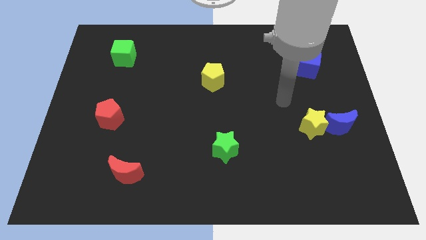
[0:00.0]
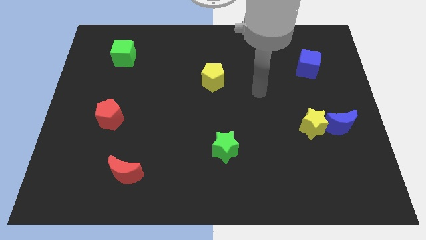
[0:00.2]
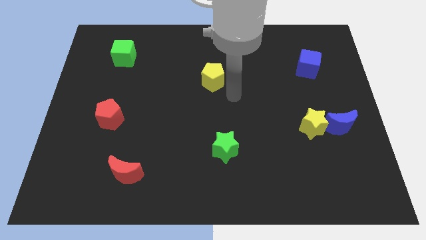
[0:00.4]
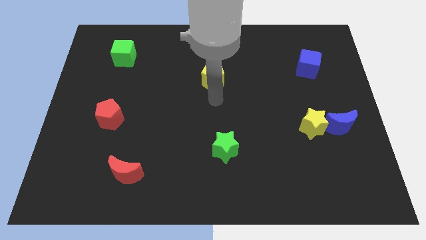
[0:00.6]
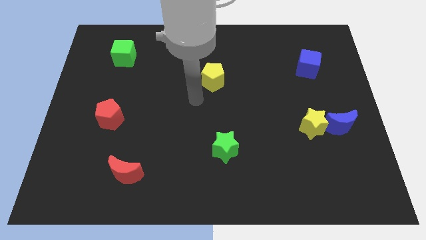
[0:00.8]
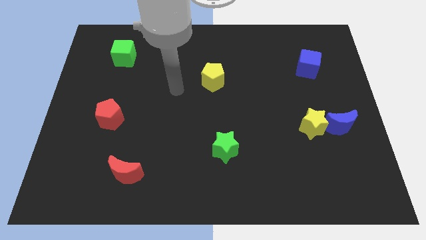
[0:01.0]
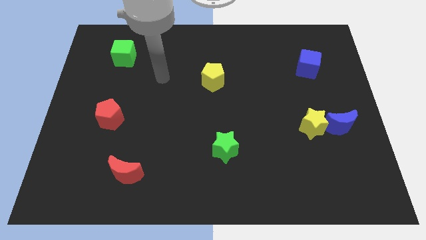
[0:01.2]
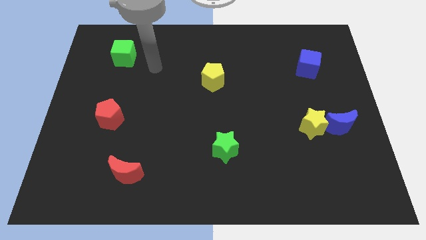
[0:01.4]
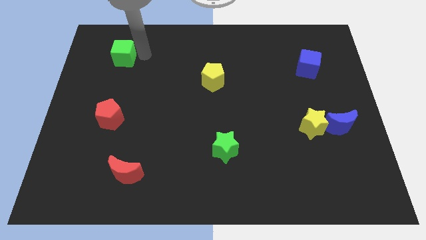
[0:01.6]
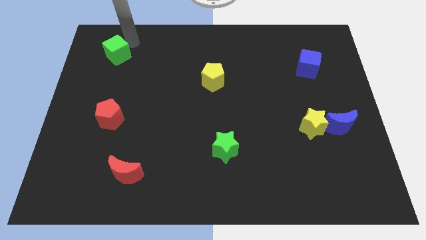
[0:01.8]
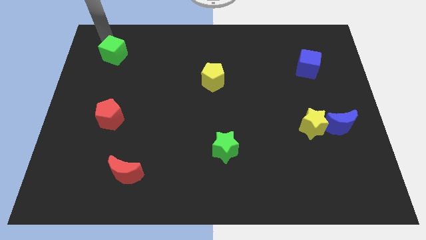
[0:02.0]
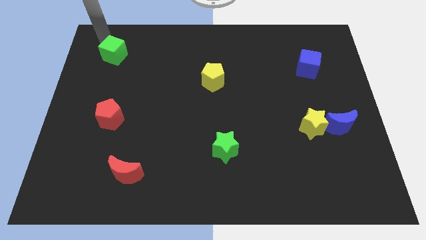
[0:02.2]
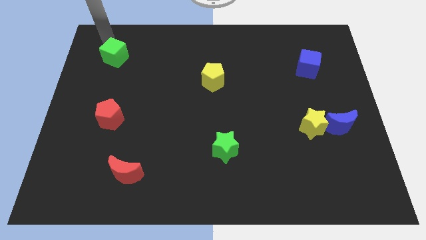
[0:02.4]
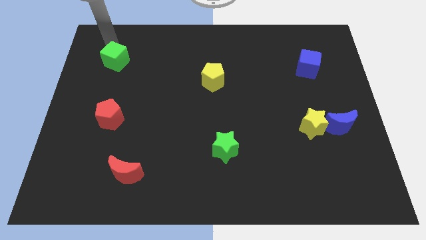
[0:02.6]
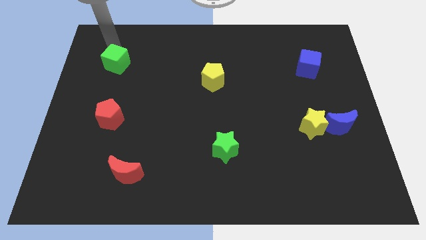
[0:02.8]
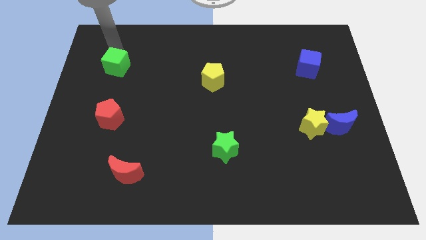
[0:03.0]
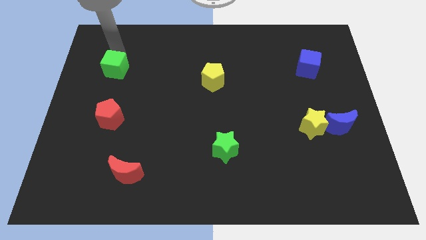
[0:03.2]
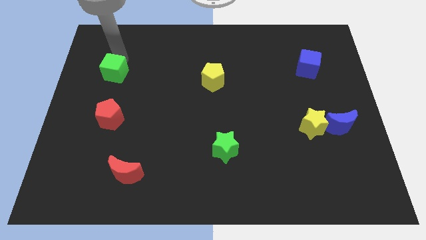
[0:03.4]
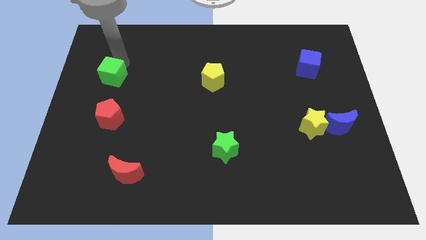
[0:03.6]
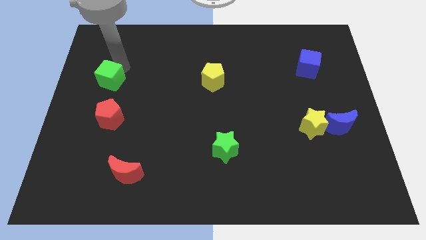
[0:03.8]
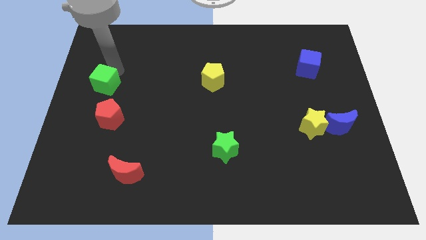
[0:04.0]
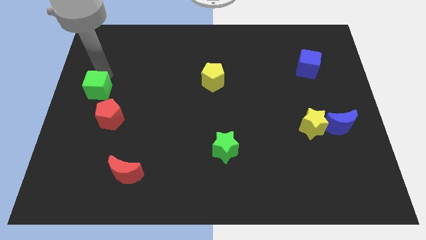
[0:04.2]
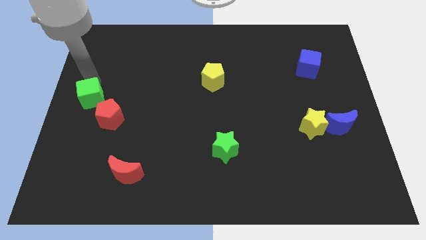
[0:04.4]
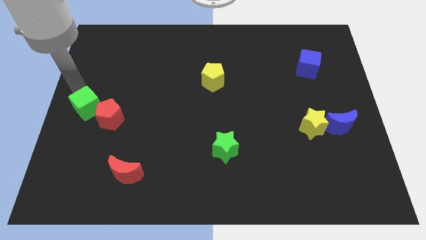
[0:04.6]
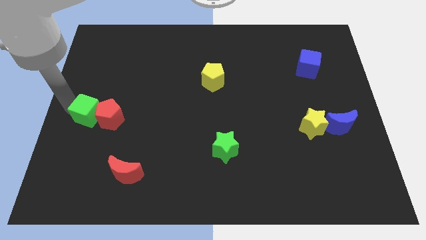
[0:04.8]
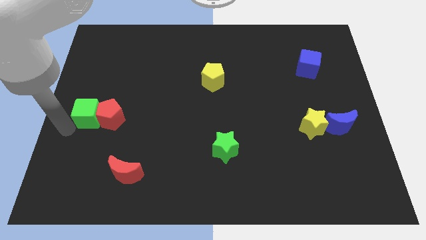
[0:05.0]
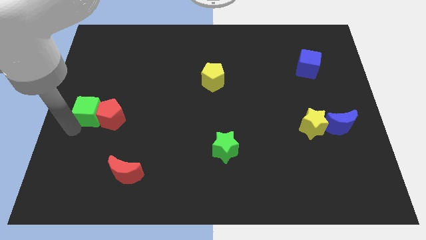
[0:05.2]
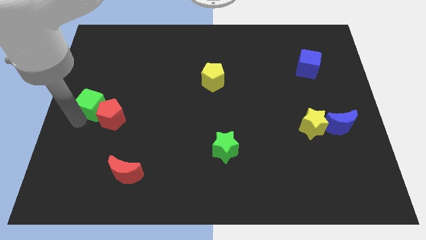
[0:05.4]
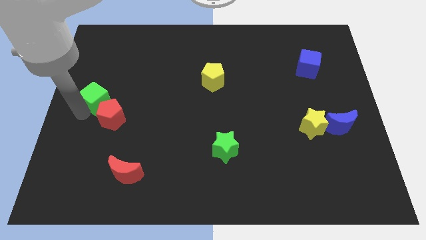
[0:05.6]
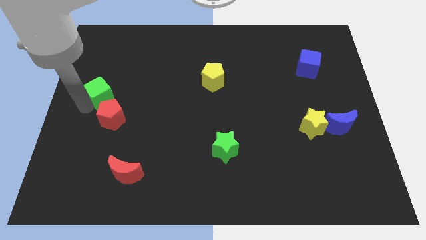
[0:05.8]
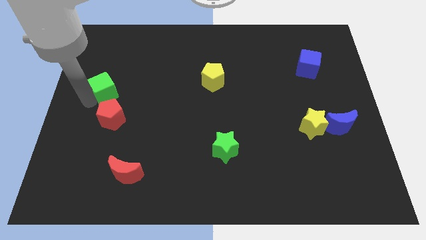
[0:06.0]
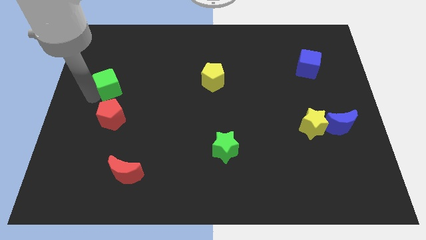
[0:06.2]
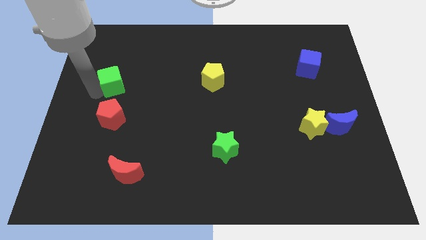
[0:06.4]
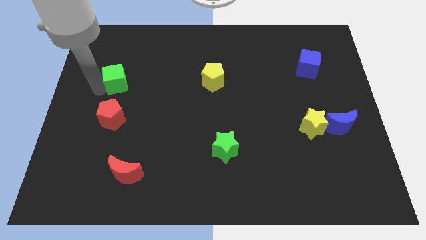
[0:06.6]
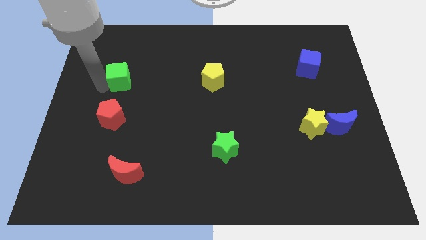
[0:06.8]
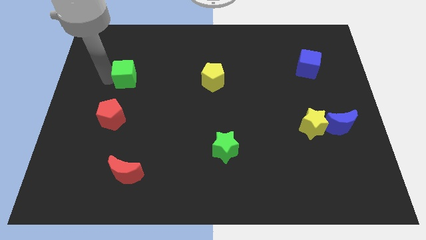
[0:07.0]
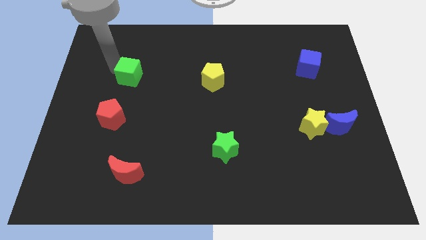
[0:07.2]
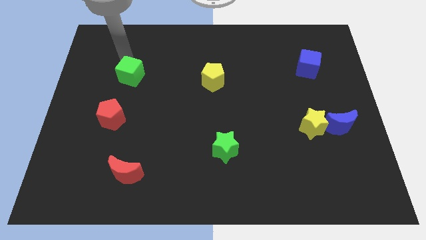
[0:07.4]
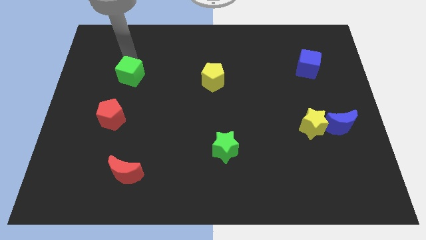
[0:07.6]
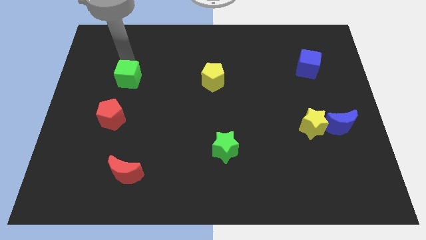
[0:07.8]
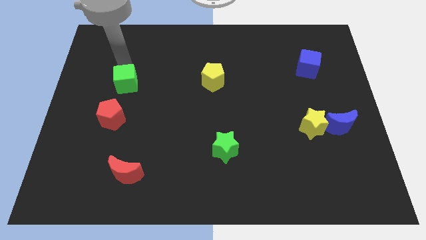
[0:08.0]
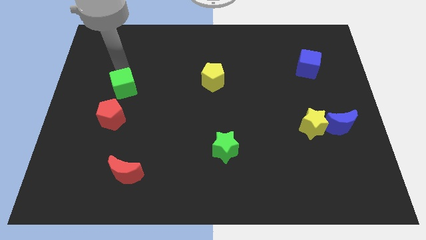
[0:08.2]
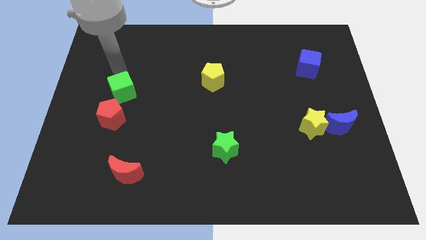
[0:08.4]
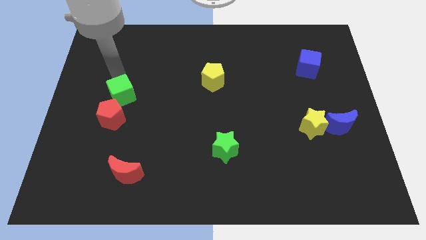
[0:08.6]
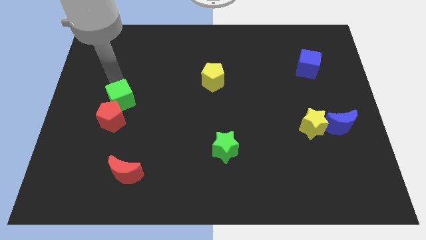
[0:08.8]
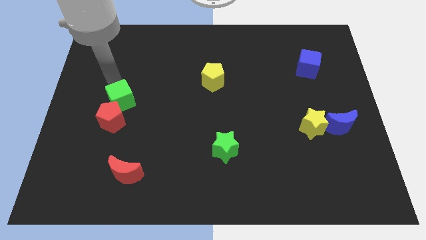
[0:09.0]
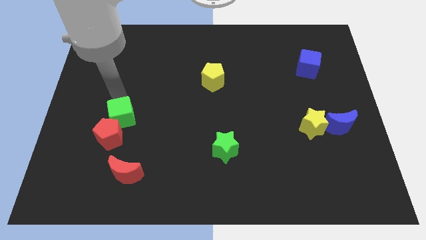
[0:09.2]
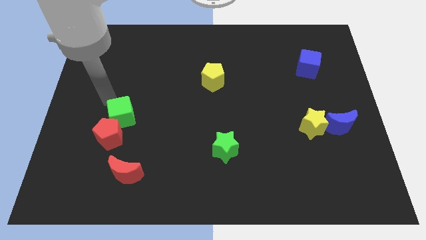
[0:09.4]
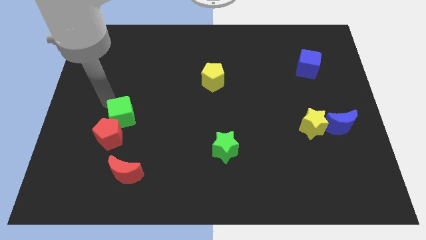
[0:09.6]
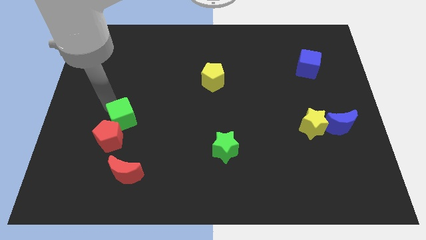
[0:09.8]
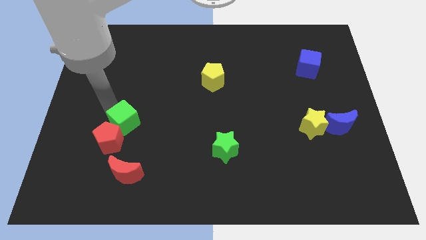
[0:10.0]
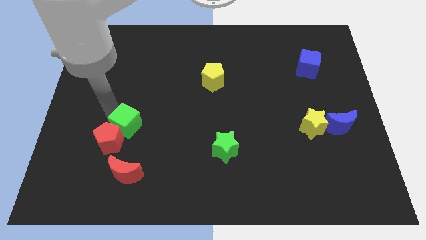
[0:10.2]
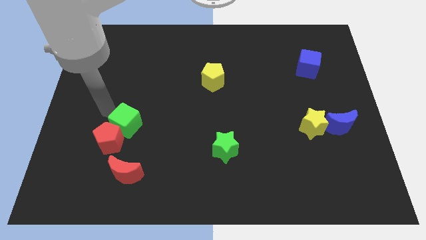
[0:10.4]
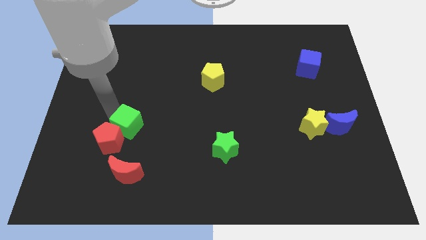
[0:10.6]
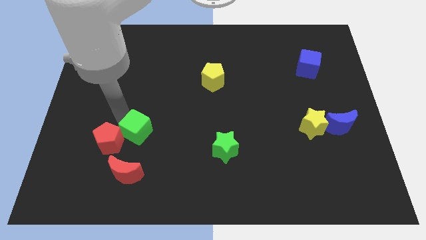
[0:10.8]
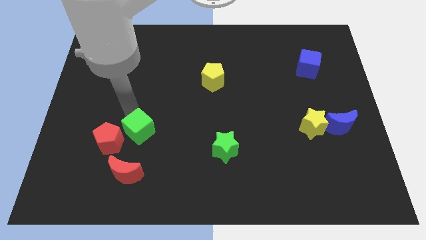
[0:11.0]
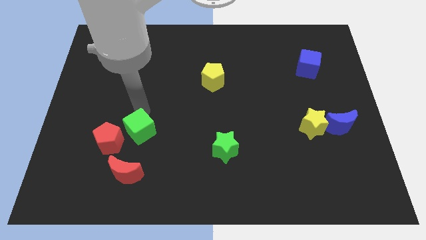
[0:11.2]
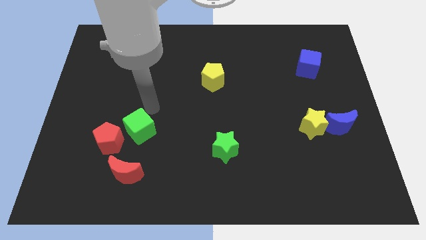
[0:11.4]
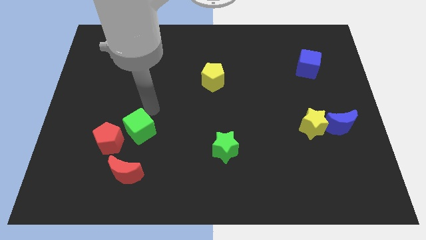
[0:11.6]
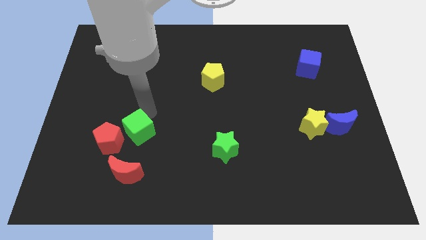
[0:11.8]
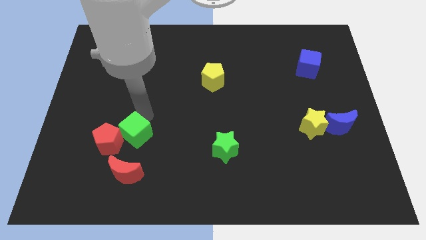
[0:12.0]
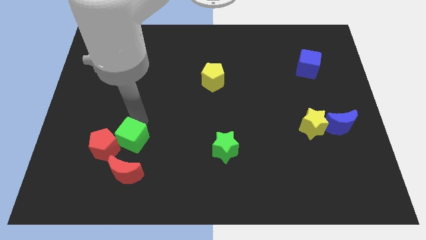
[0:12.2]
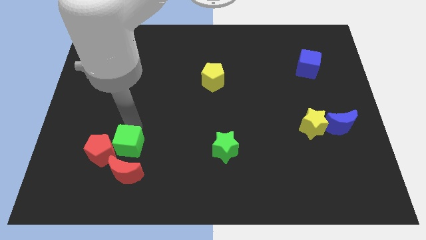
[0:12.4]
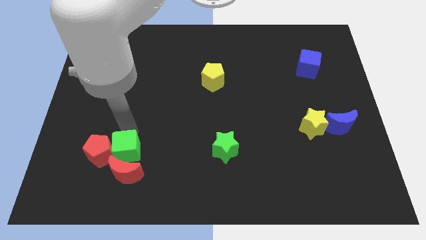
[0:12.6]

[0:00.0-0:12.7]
put the green cube close to the red moon
